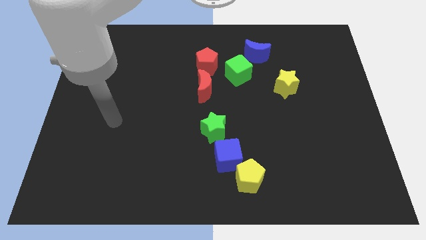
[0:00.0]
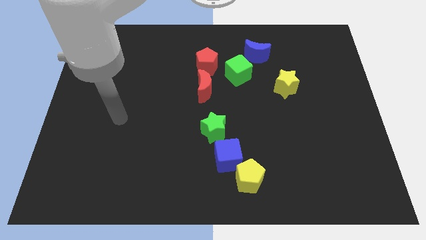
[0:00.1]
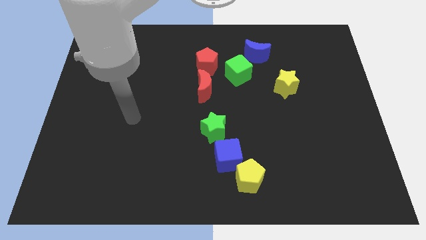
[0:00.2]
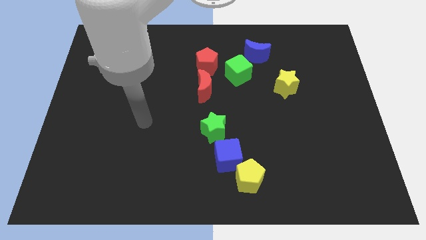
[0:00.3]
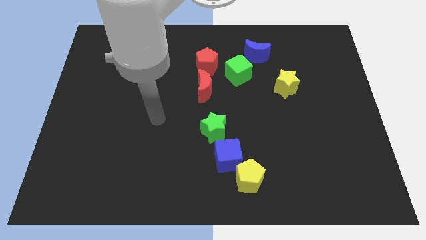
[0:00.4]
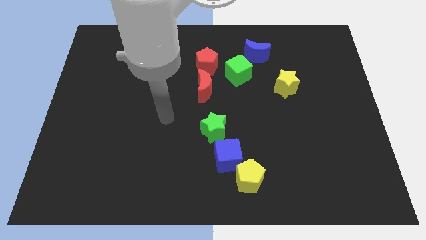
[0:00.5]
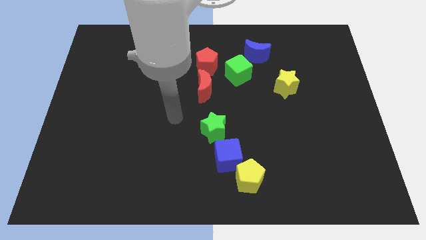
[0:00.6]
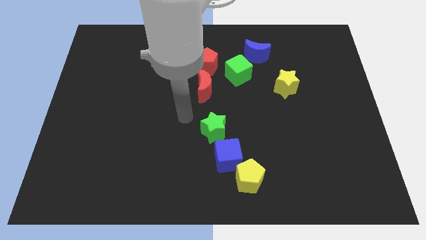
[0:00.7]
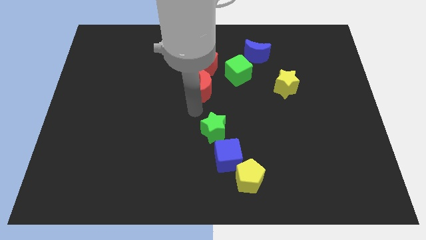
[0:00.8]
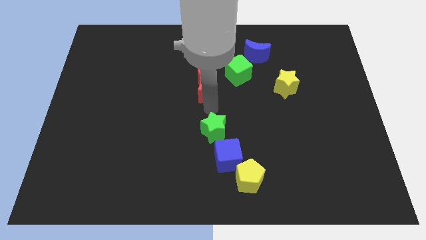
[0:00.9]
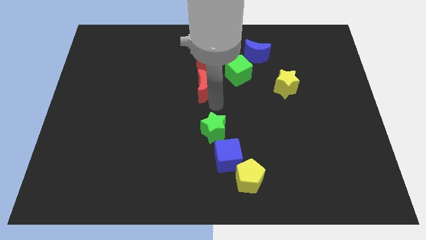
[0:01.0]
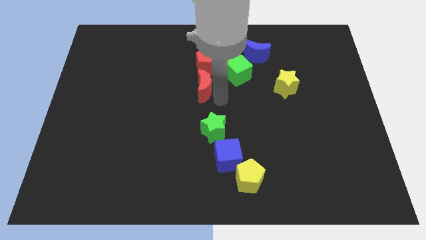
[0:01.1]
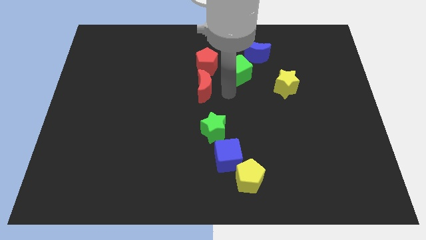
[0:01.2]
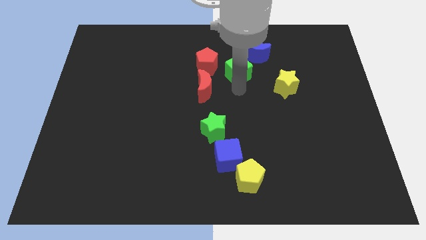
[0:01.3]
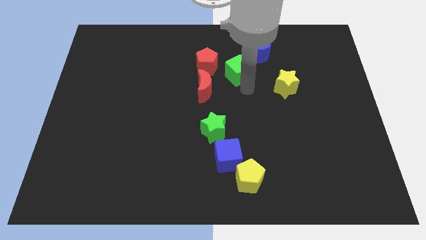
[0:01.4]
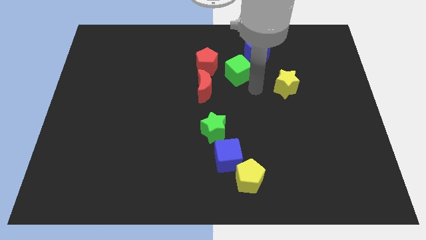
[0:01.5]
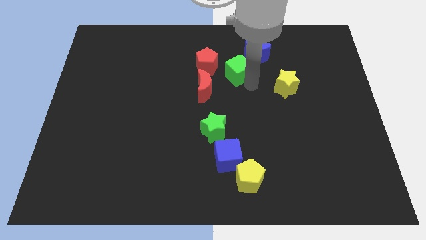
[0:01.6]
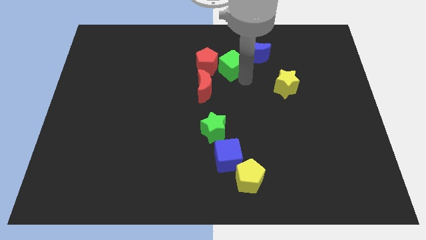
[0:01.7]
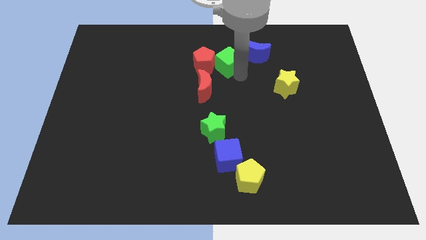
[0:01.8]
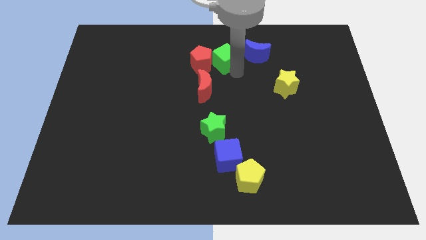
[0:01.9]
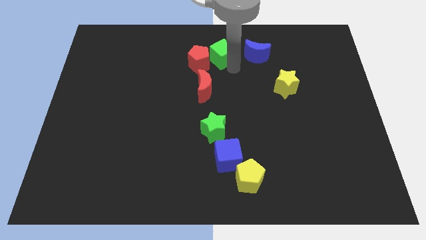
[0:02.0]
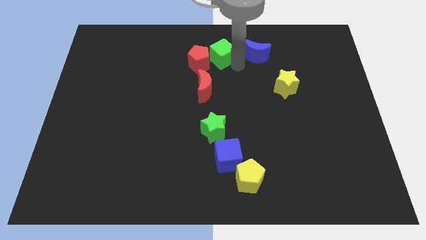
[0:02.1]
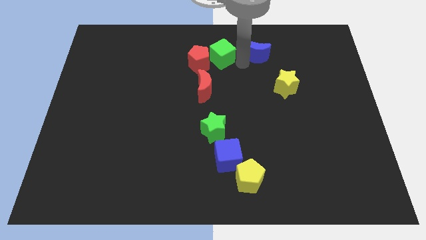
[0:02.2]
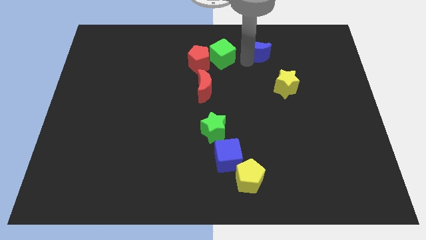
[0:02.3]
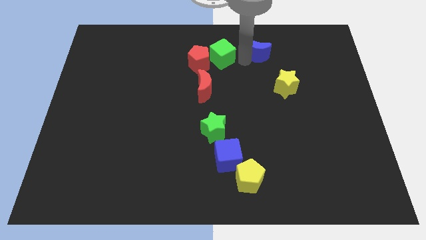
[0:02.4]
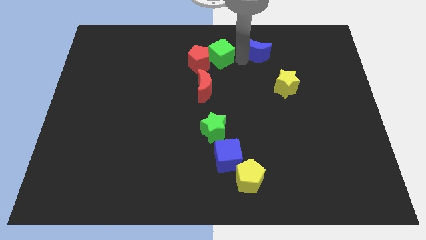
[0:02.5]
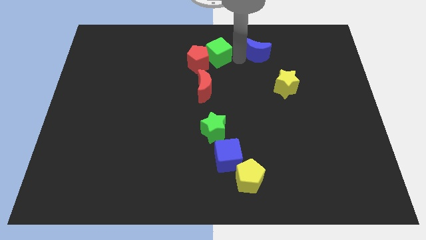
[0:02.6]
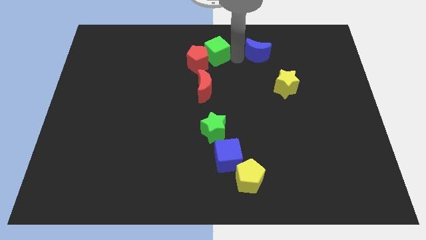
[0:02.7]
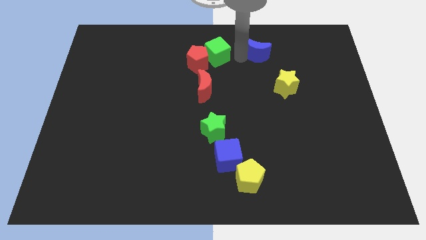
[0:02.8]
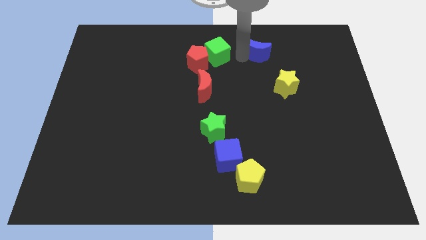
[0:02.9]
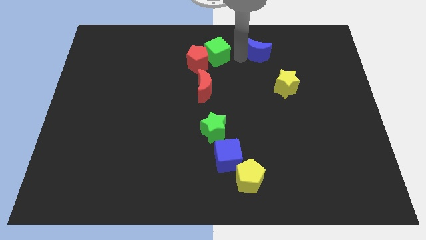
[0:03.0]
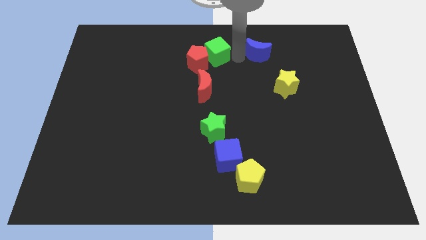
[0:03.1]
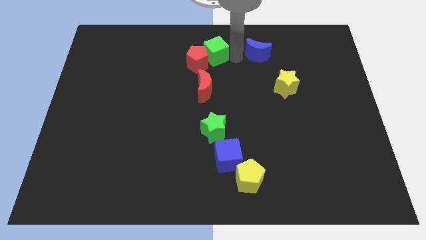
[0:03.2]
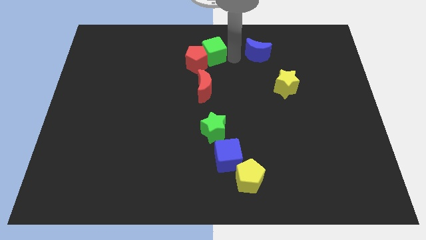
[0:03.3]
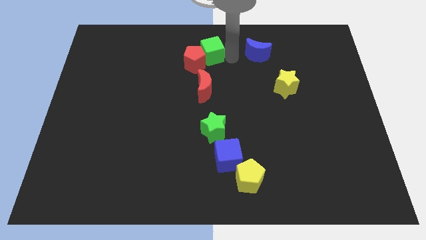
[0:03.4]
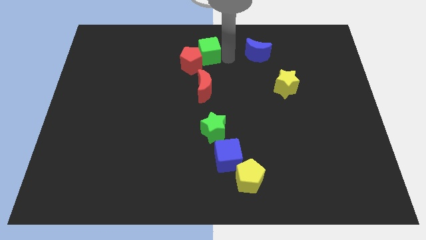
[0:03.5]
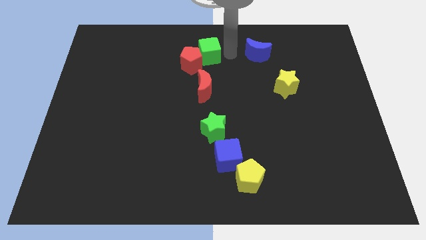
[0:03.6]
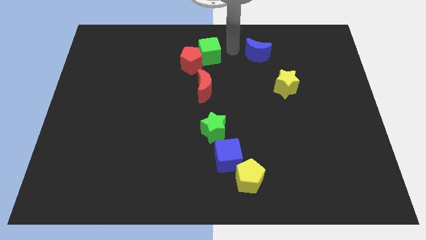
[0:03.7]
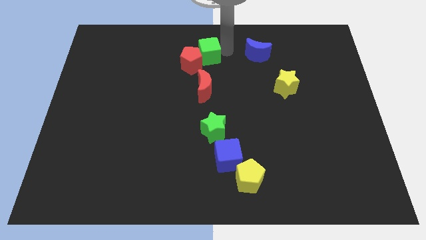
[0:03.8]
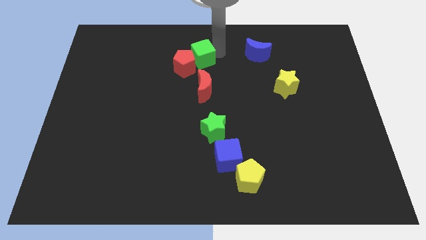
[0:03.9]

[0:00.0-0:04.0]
move the green cube left a little

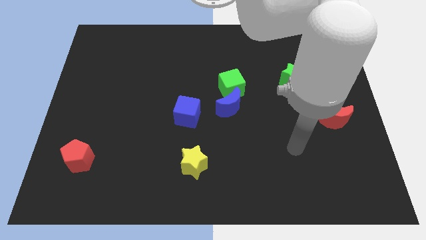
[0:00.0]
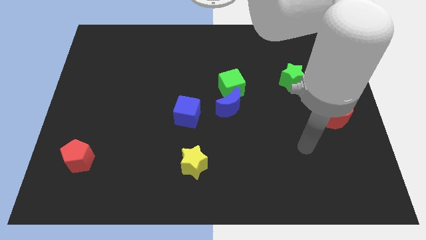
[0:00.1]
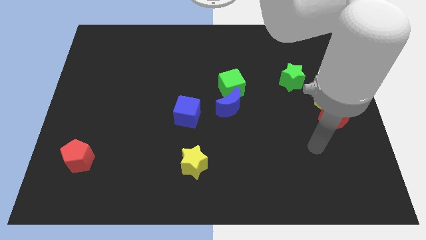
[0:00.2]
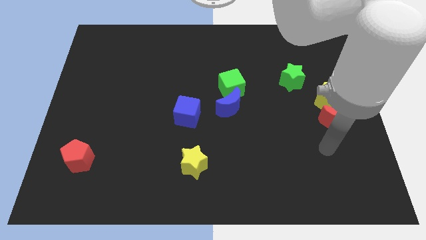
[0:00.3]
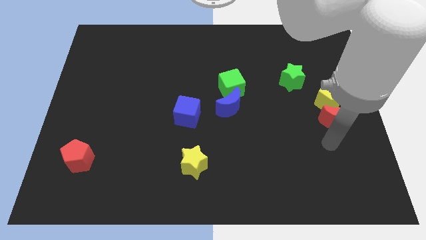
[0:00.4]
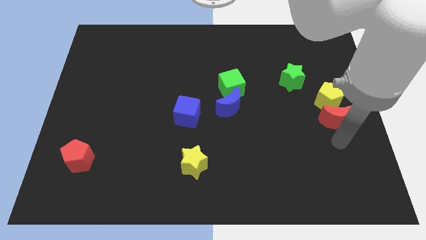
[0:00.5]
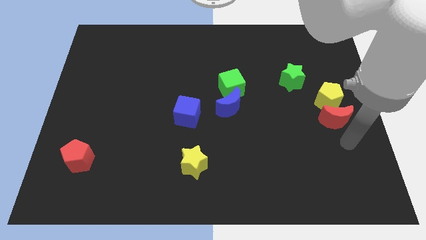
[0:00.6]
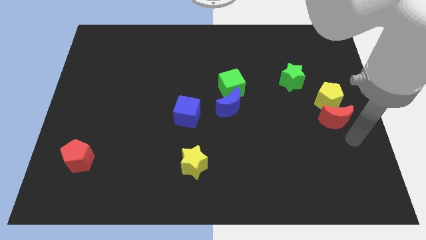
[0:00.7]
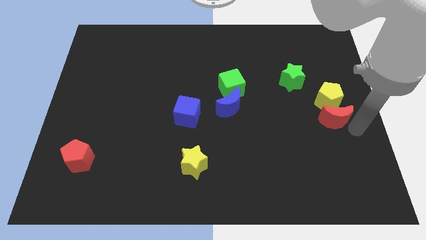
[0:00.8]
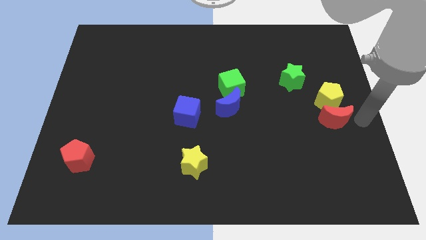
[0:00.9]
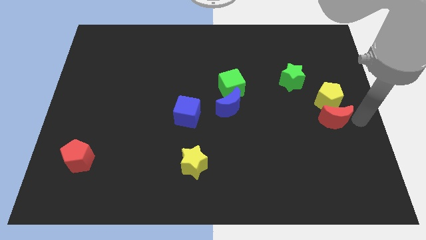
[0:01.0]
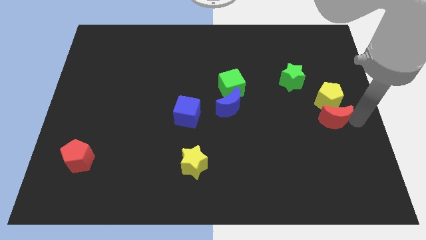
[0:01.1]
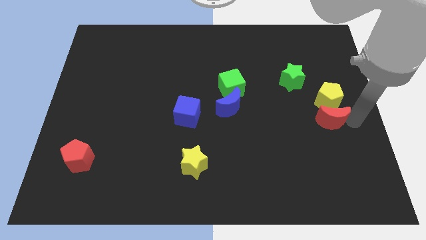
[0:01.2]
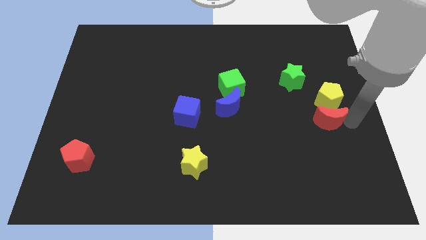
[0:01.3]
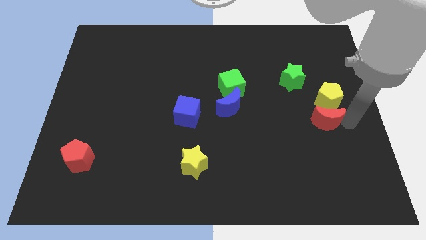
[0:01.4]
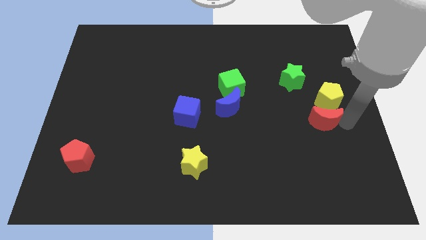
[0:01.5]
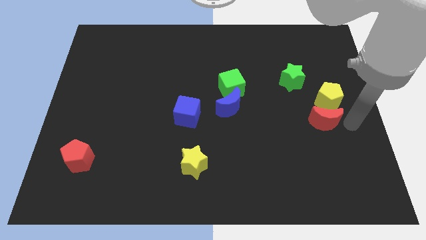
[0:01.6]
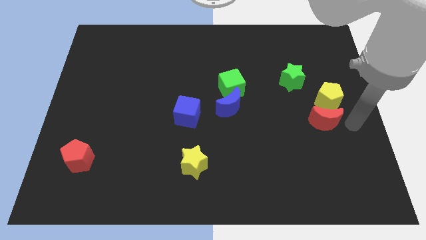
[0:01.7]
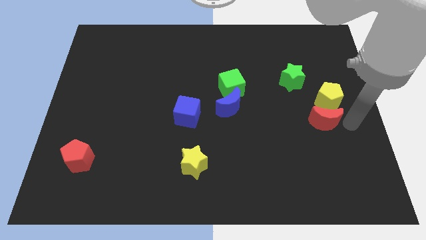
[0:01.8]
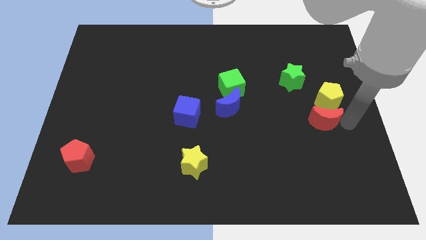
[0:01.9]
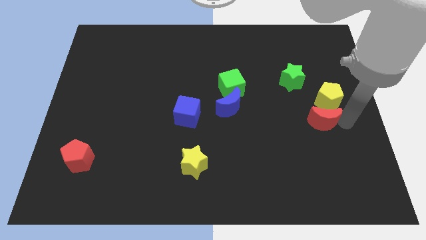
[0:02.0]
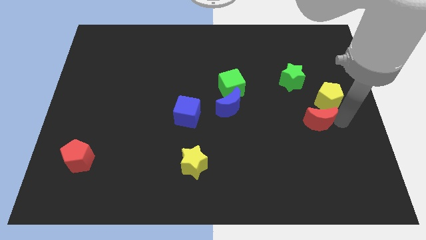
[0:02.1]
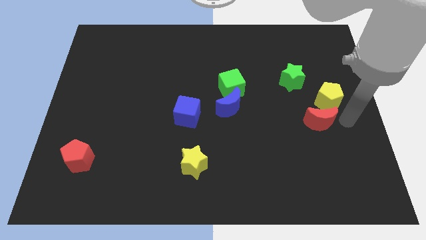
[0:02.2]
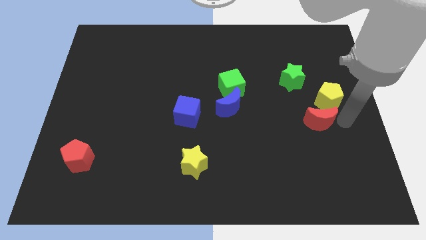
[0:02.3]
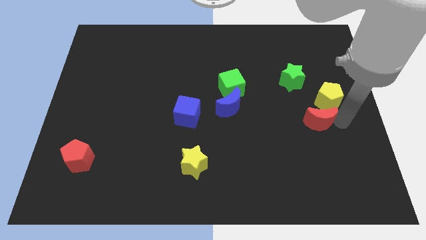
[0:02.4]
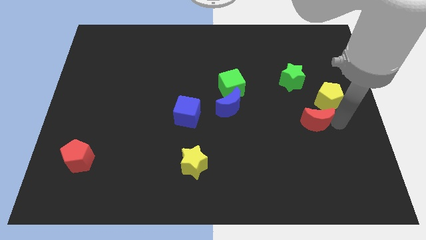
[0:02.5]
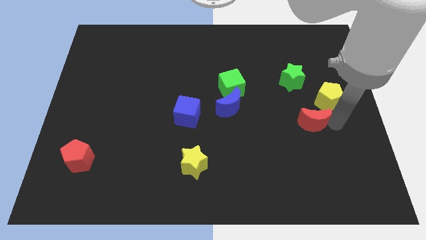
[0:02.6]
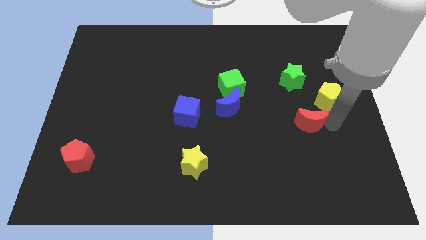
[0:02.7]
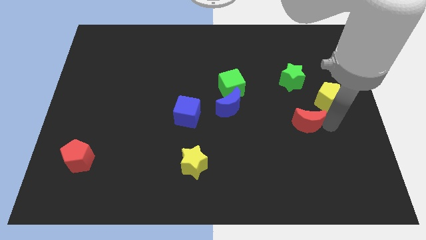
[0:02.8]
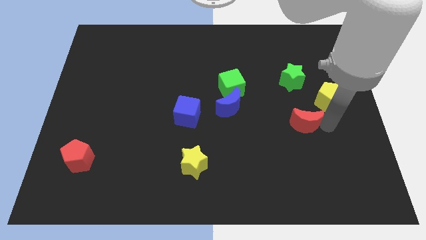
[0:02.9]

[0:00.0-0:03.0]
move the red moon somewhat left

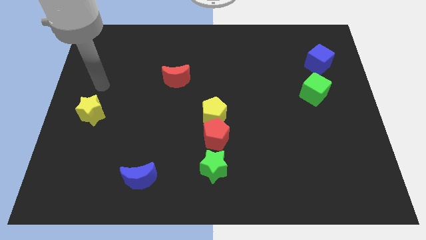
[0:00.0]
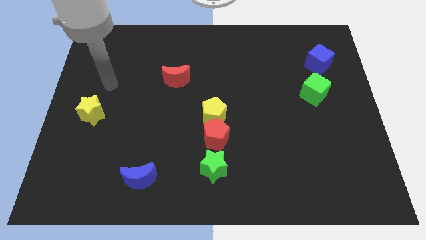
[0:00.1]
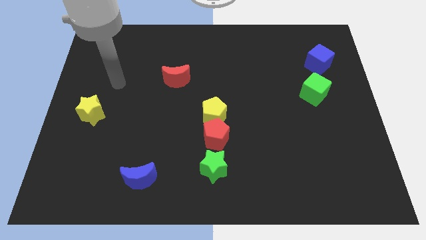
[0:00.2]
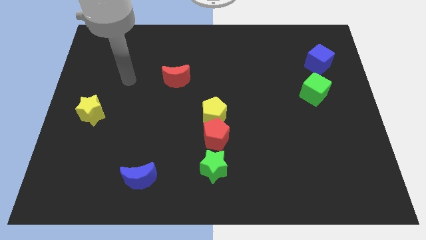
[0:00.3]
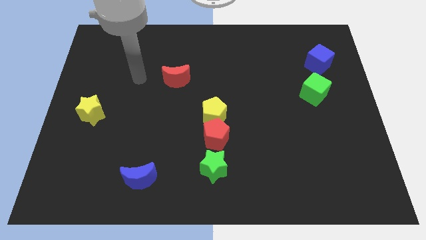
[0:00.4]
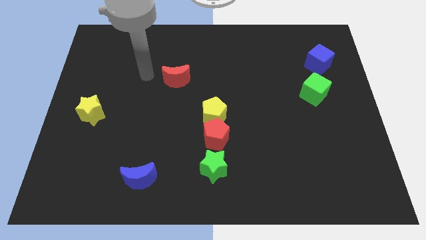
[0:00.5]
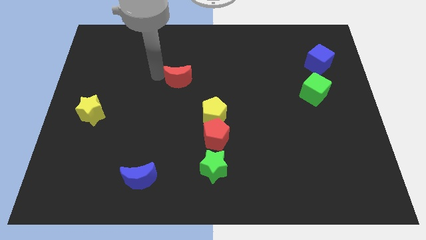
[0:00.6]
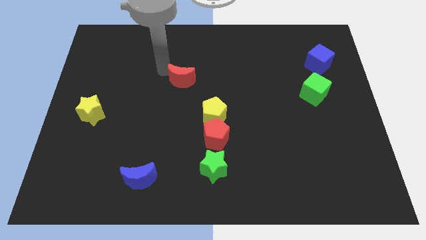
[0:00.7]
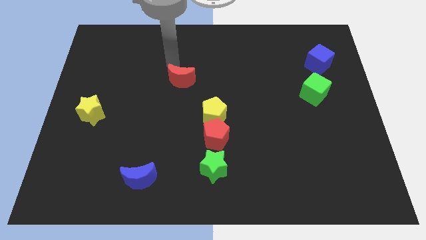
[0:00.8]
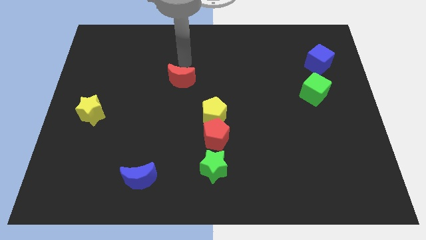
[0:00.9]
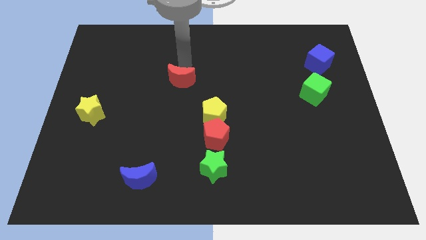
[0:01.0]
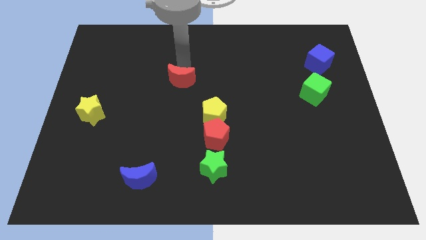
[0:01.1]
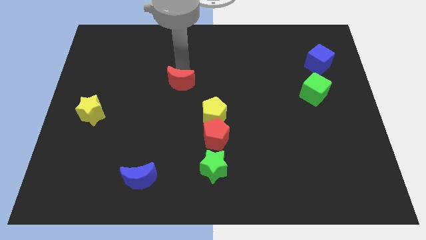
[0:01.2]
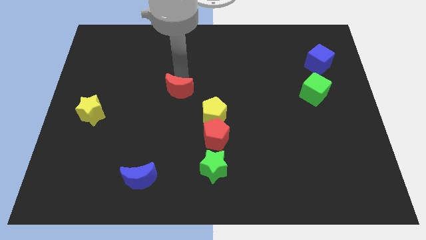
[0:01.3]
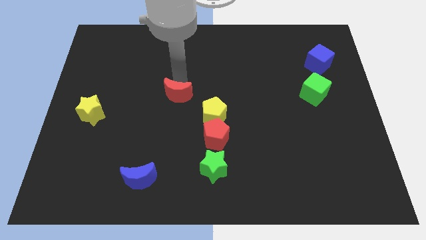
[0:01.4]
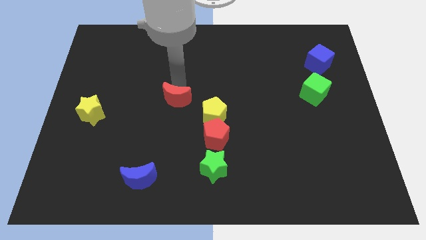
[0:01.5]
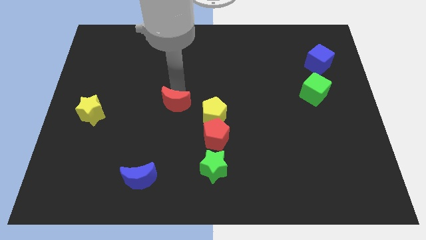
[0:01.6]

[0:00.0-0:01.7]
slide the red moon downwards a bit
